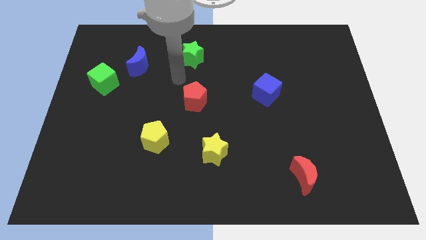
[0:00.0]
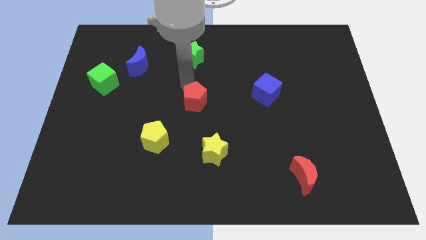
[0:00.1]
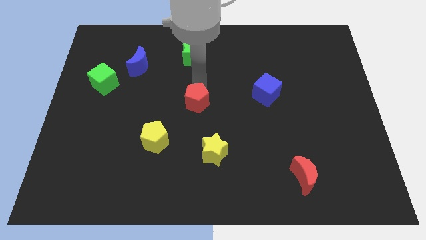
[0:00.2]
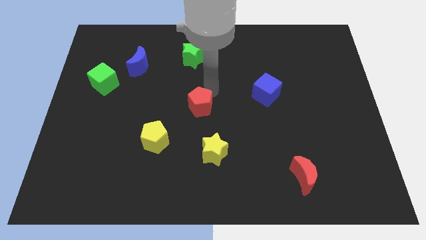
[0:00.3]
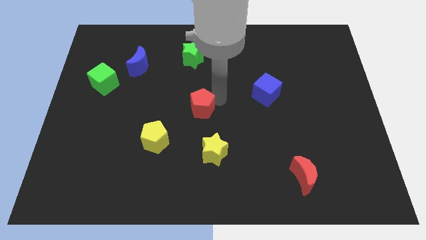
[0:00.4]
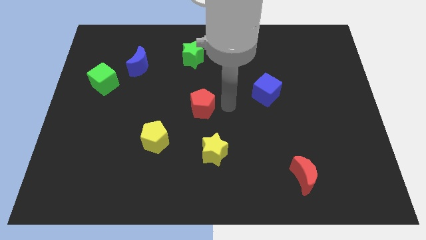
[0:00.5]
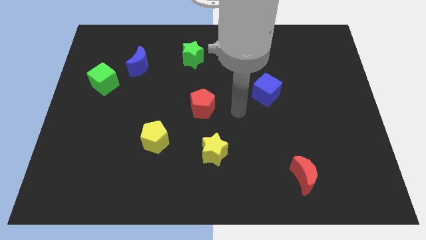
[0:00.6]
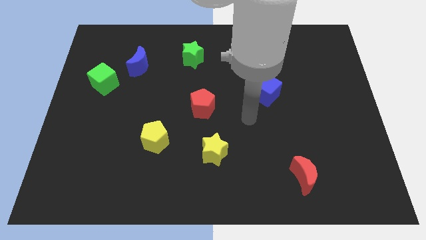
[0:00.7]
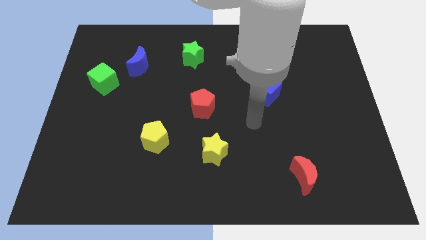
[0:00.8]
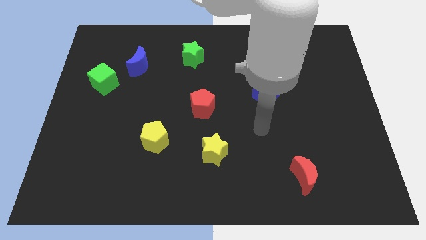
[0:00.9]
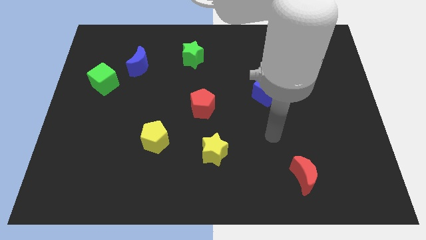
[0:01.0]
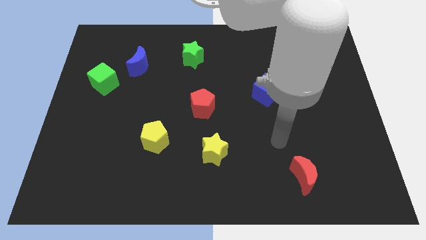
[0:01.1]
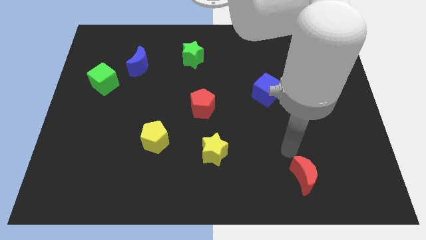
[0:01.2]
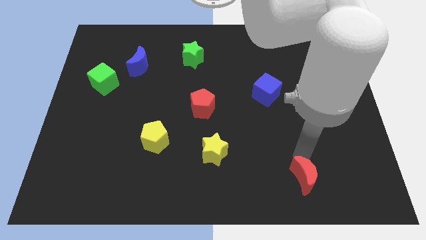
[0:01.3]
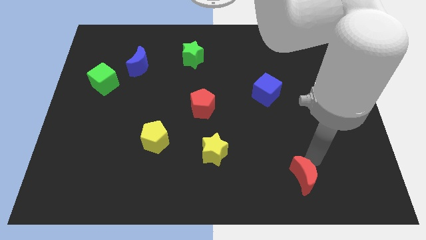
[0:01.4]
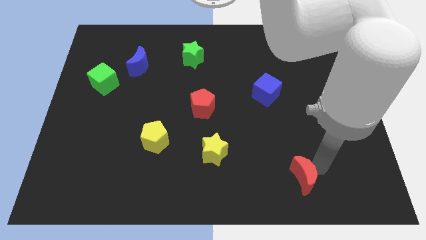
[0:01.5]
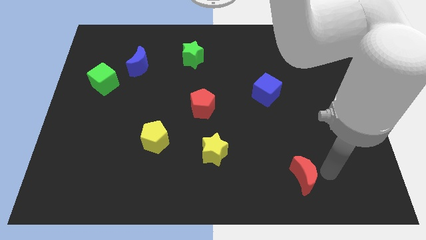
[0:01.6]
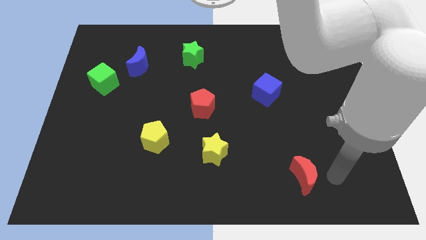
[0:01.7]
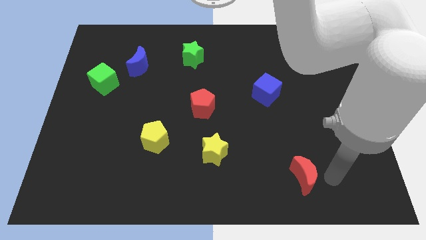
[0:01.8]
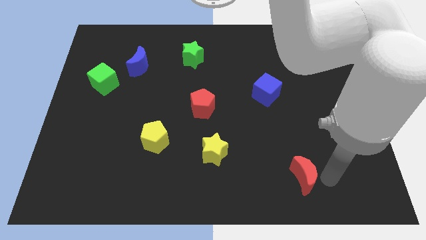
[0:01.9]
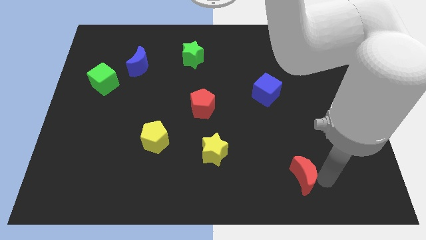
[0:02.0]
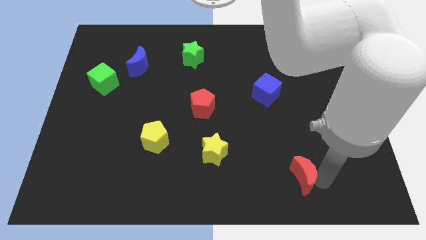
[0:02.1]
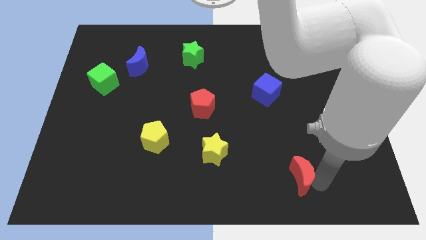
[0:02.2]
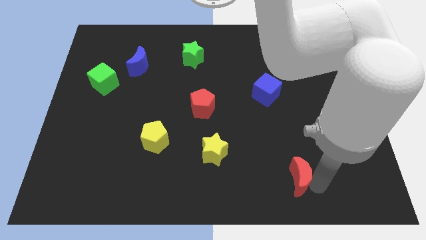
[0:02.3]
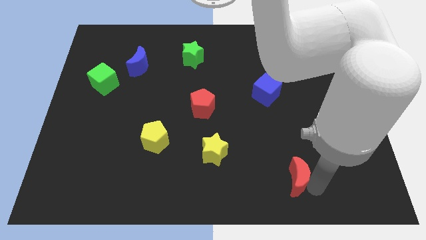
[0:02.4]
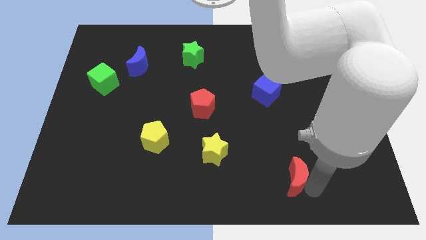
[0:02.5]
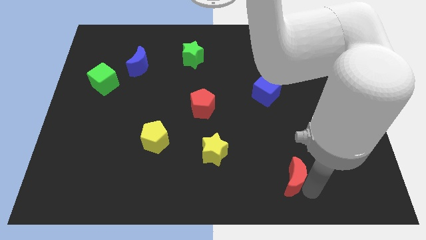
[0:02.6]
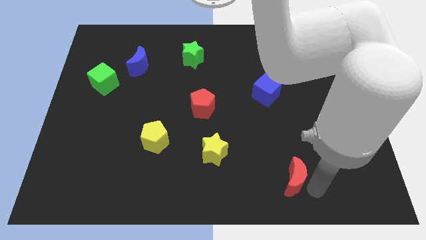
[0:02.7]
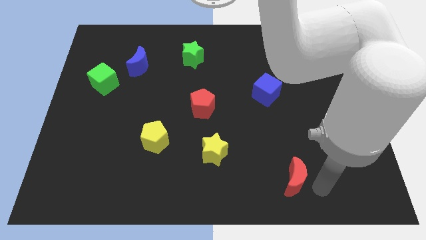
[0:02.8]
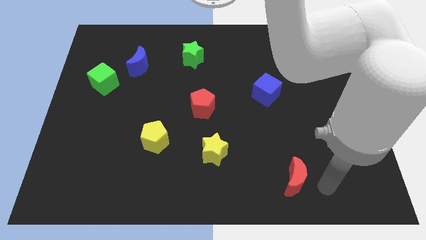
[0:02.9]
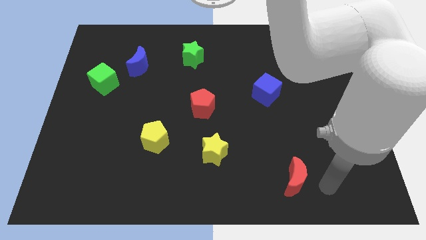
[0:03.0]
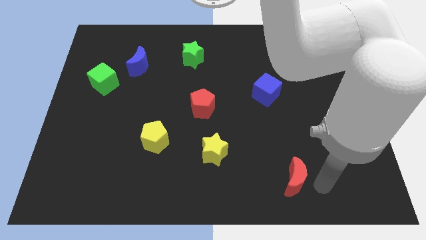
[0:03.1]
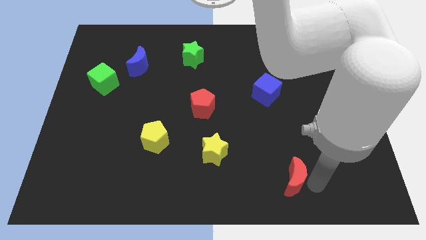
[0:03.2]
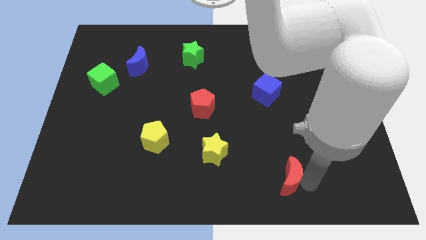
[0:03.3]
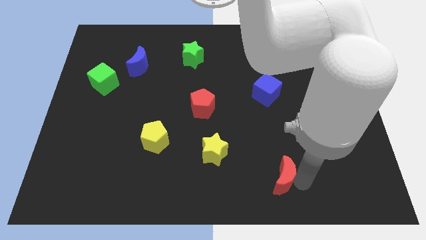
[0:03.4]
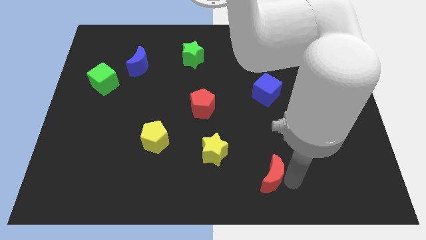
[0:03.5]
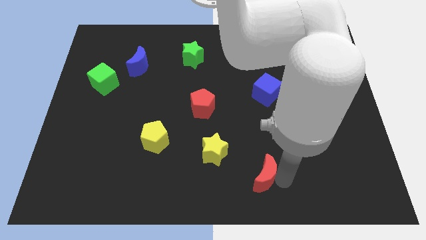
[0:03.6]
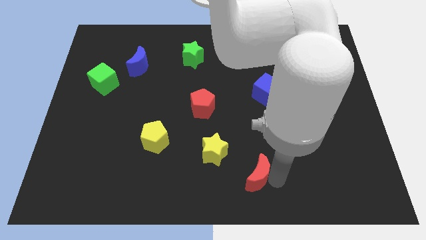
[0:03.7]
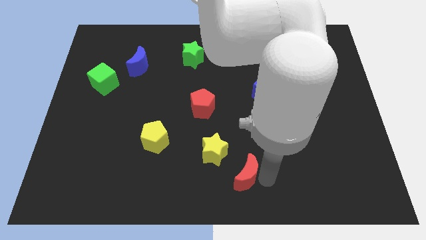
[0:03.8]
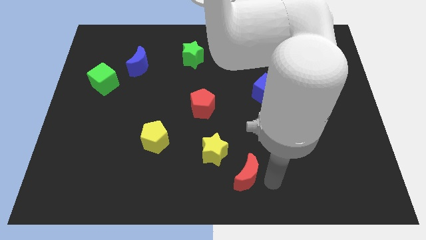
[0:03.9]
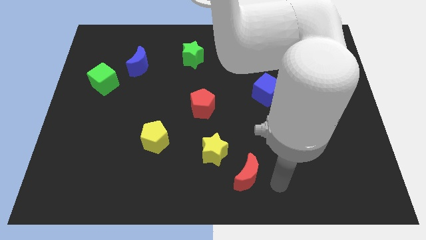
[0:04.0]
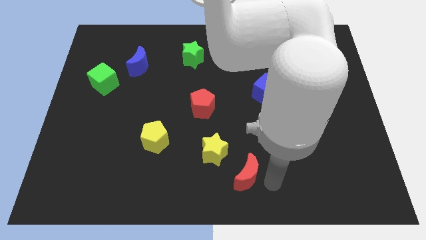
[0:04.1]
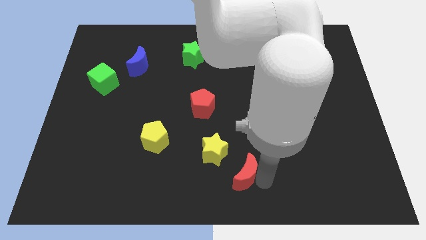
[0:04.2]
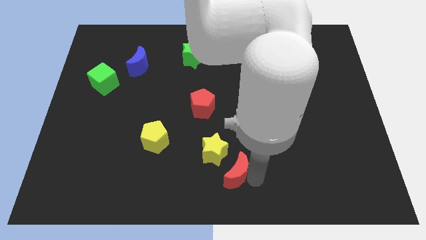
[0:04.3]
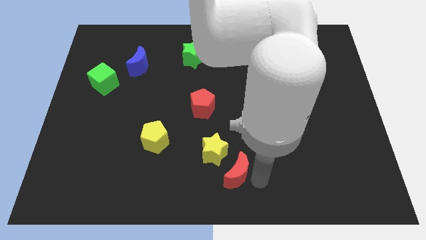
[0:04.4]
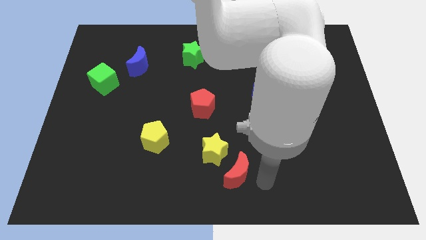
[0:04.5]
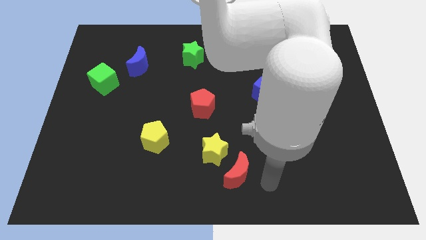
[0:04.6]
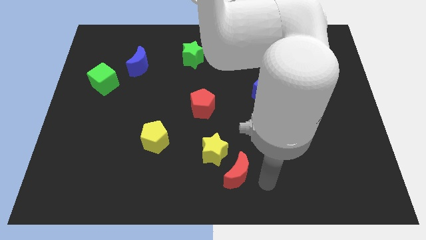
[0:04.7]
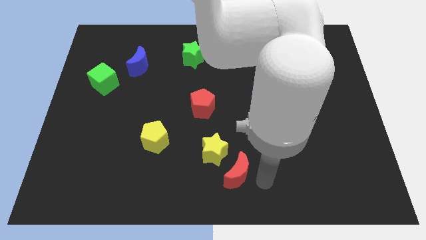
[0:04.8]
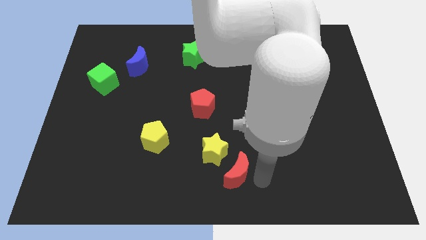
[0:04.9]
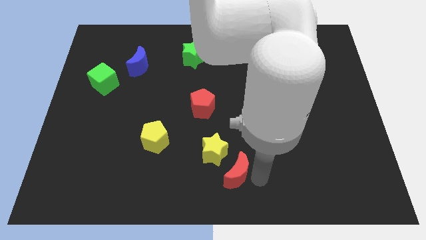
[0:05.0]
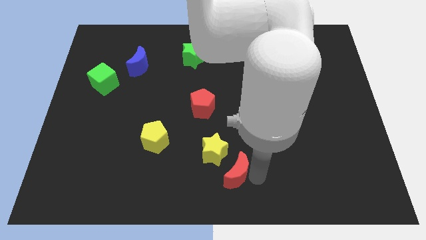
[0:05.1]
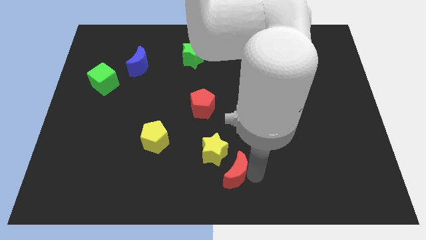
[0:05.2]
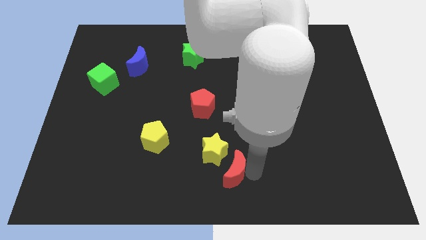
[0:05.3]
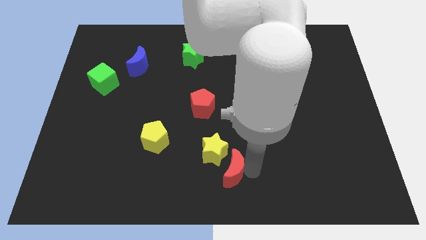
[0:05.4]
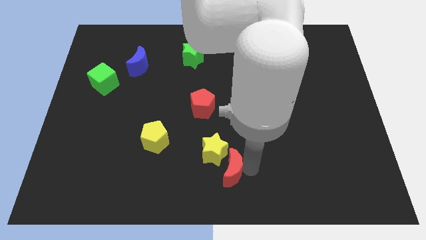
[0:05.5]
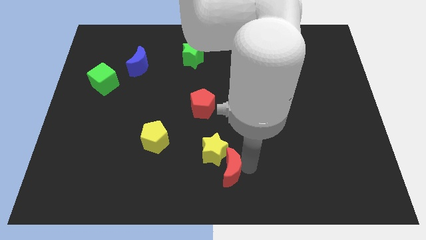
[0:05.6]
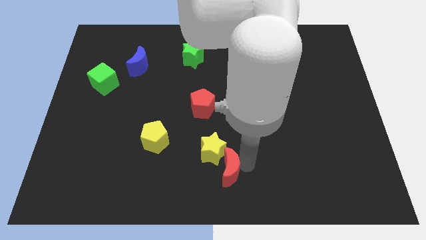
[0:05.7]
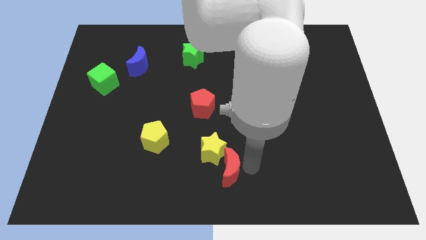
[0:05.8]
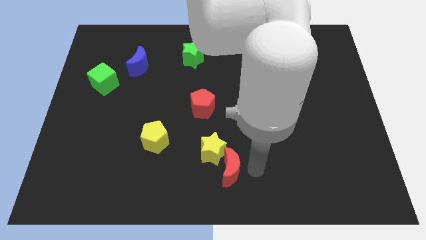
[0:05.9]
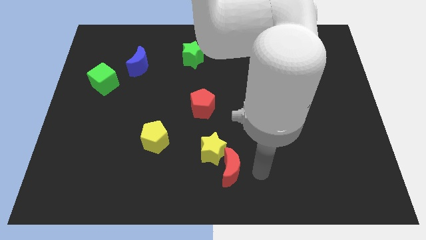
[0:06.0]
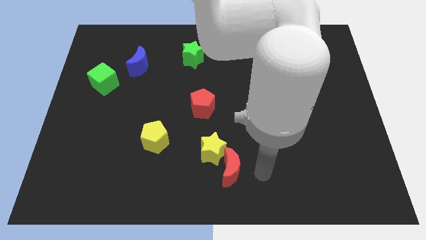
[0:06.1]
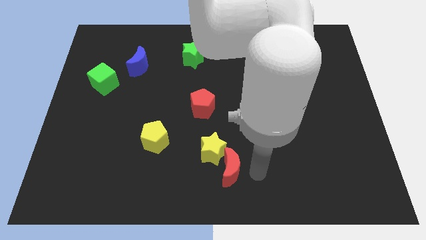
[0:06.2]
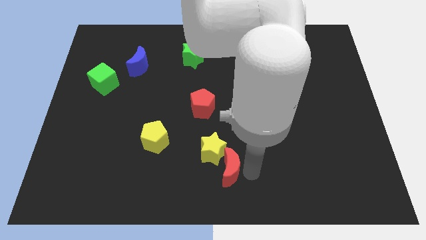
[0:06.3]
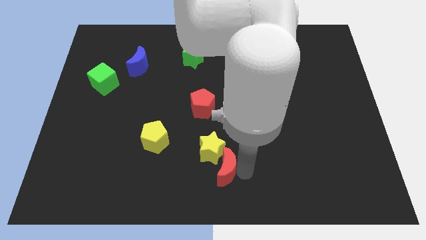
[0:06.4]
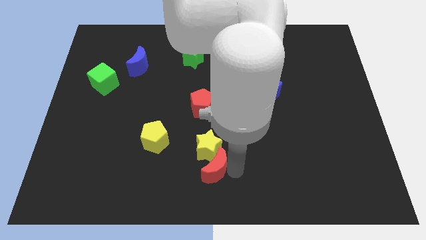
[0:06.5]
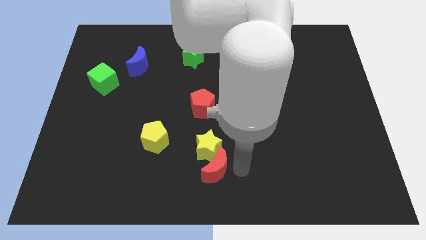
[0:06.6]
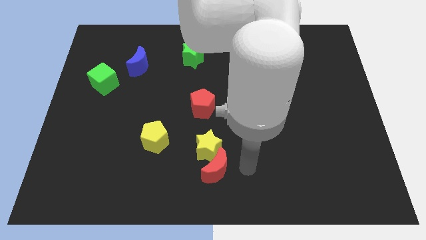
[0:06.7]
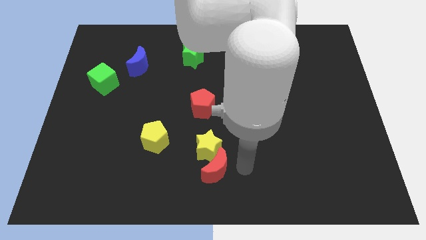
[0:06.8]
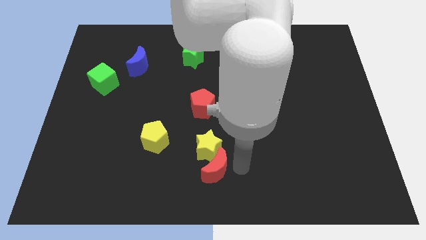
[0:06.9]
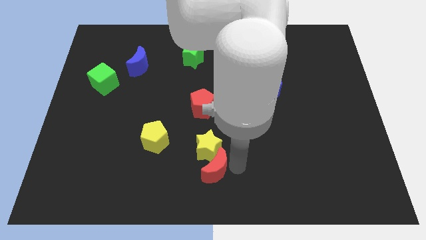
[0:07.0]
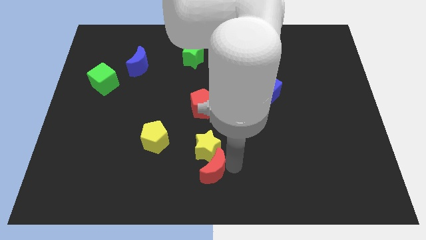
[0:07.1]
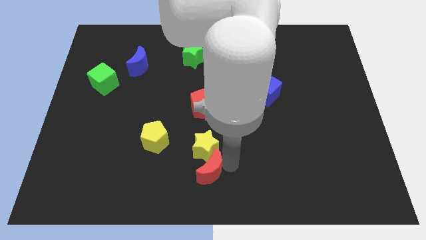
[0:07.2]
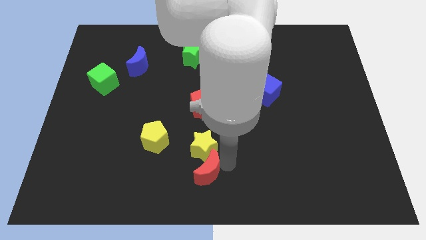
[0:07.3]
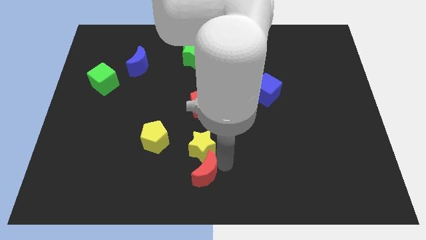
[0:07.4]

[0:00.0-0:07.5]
push the red moon to the left

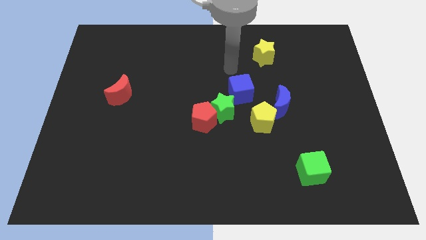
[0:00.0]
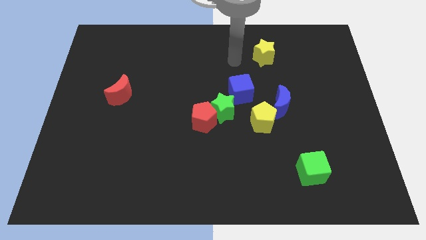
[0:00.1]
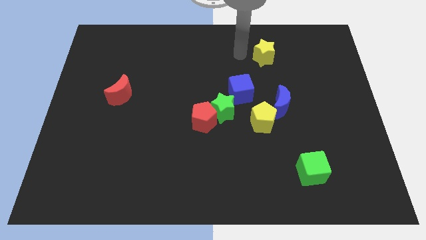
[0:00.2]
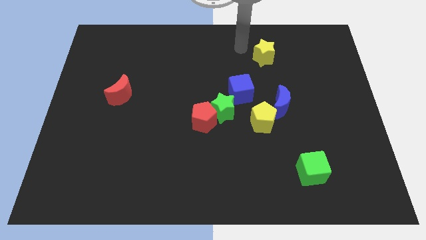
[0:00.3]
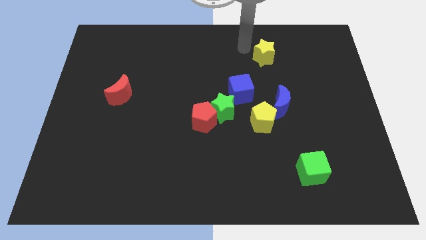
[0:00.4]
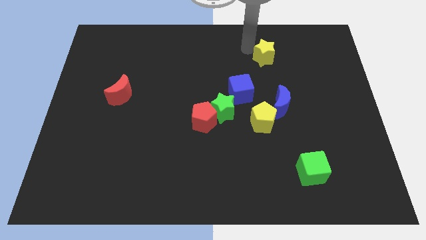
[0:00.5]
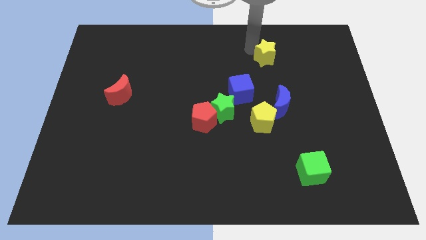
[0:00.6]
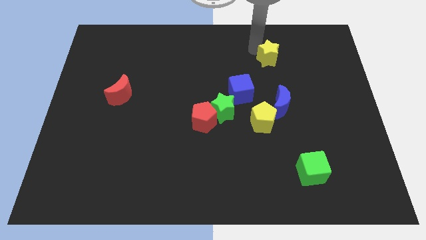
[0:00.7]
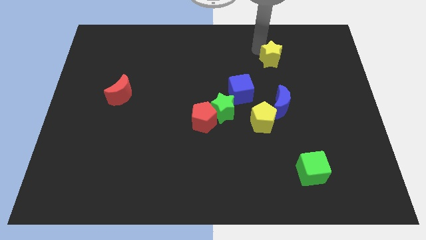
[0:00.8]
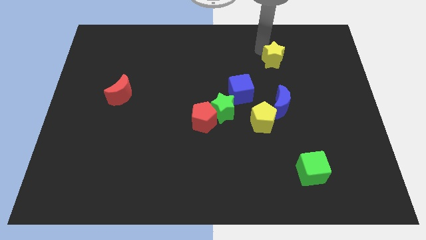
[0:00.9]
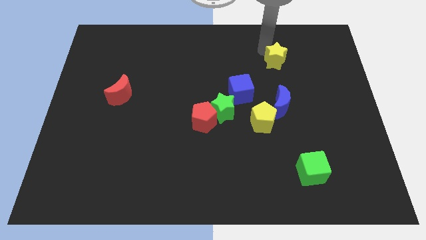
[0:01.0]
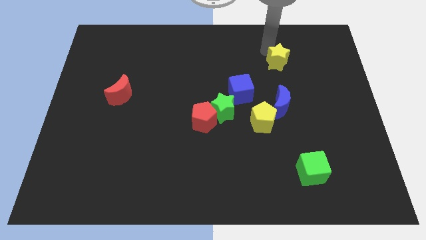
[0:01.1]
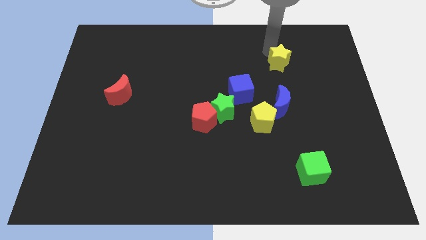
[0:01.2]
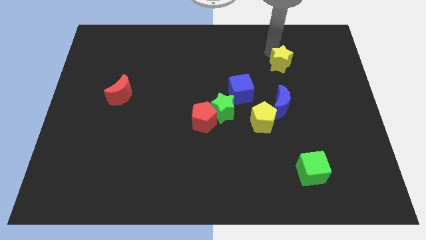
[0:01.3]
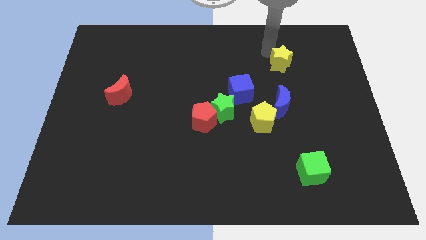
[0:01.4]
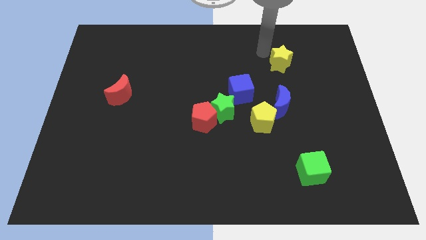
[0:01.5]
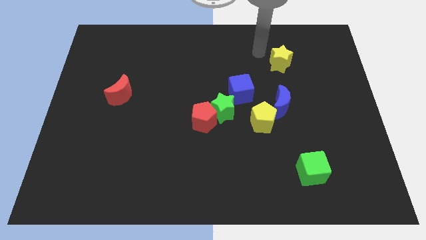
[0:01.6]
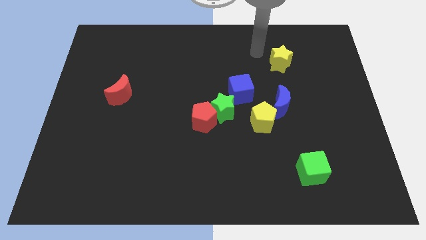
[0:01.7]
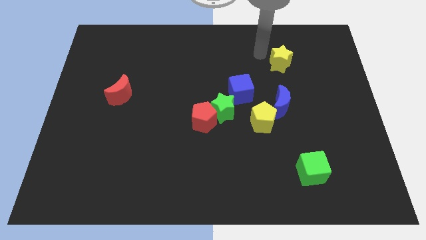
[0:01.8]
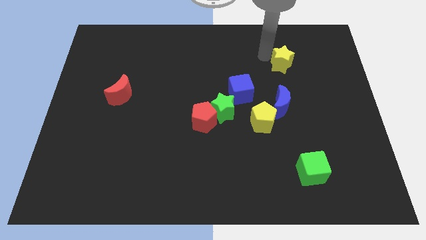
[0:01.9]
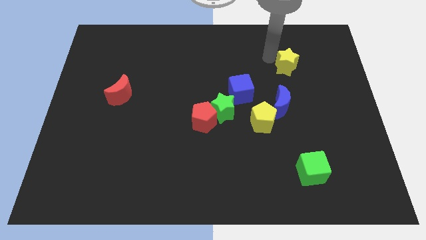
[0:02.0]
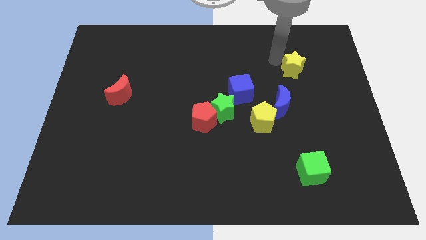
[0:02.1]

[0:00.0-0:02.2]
push the yellow star a little down and to the right
